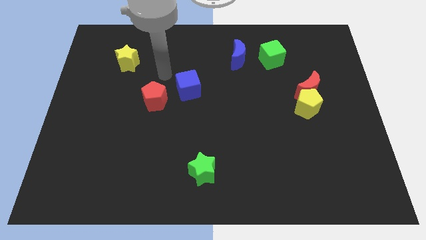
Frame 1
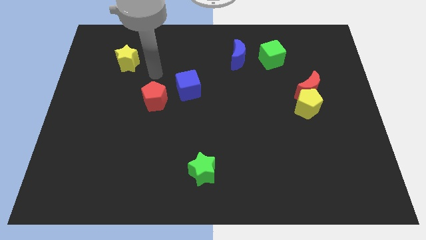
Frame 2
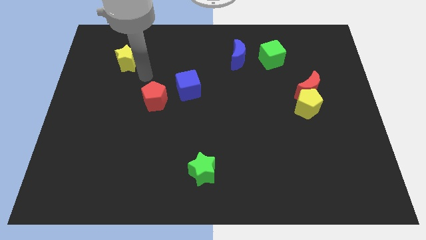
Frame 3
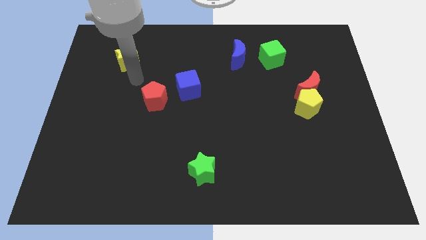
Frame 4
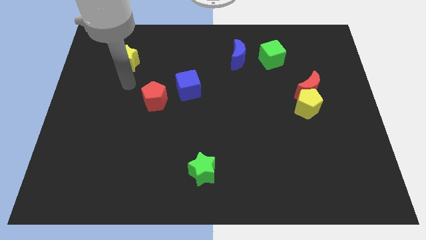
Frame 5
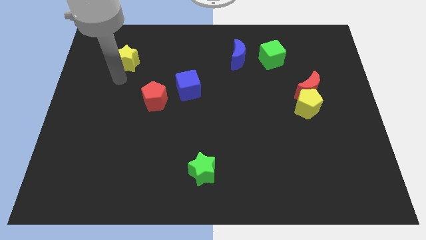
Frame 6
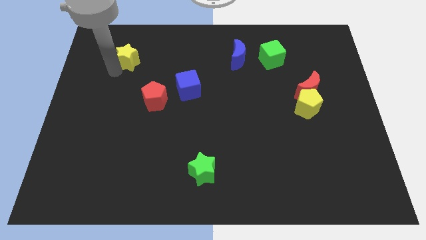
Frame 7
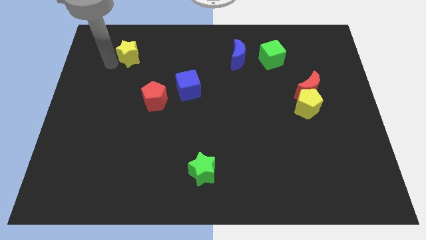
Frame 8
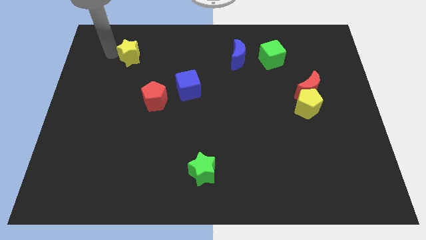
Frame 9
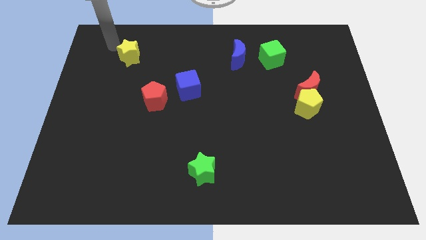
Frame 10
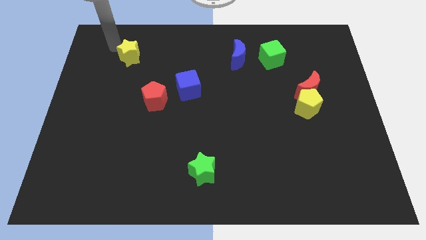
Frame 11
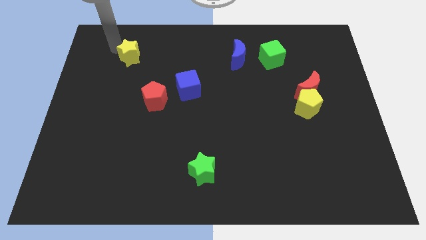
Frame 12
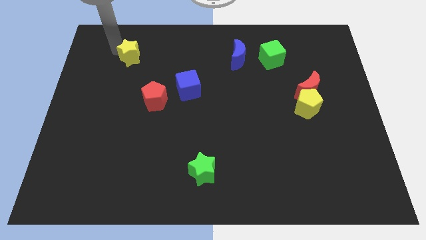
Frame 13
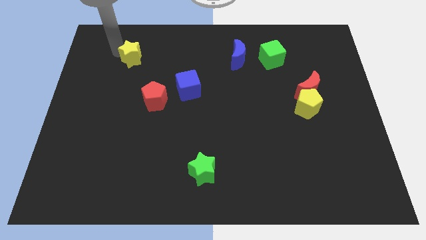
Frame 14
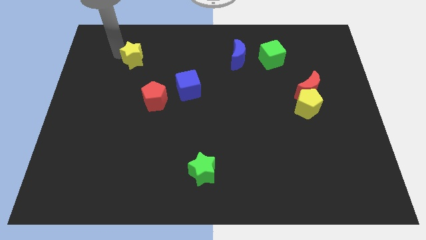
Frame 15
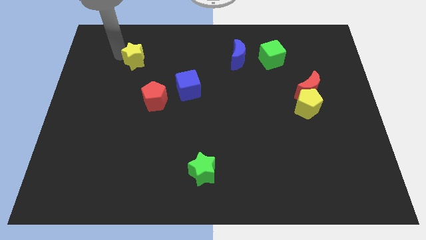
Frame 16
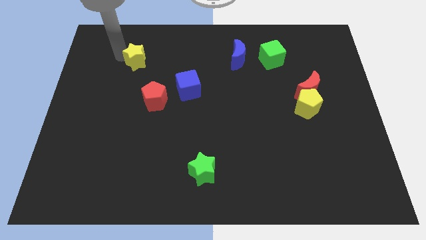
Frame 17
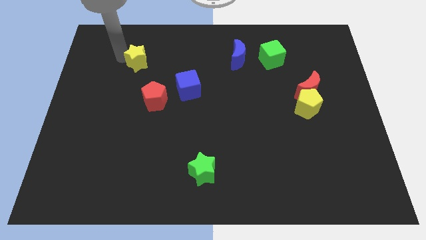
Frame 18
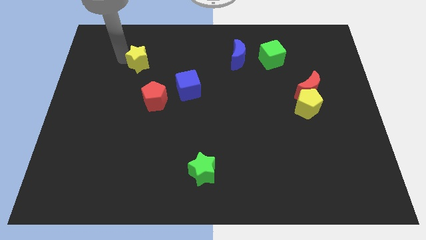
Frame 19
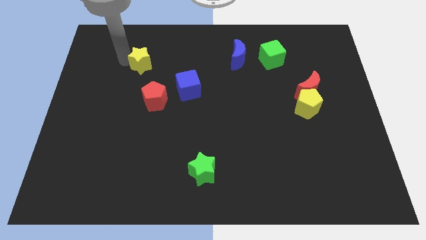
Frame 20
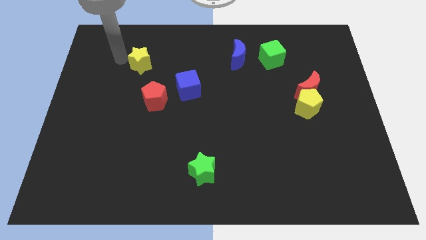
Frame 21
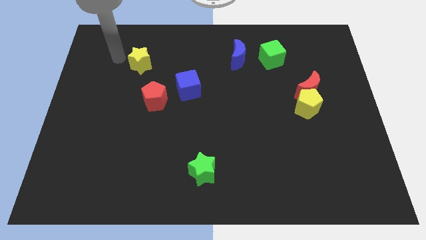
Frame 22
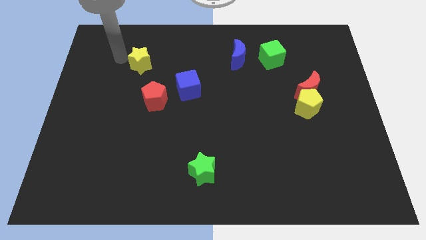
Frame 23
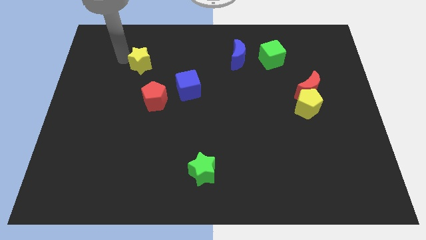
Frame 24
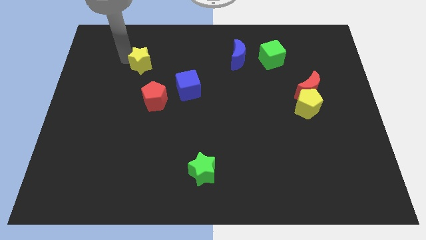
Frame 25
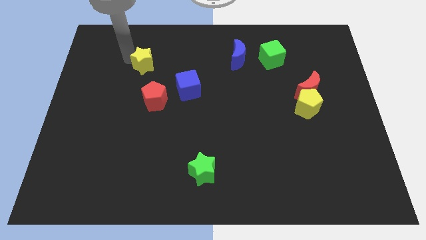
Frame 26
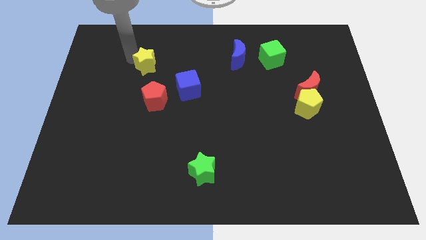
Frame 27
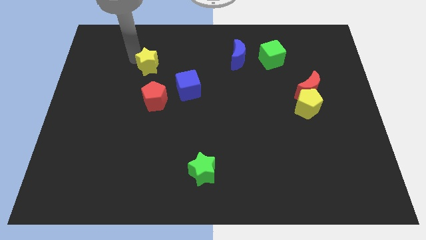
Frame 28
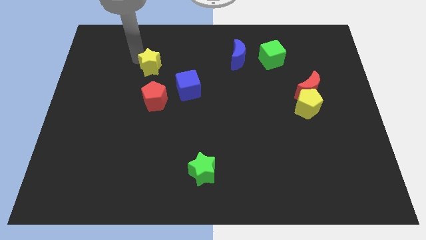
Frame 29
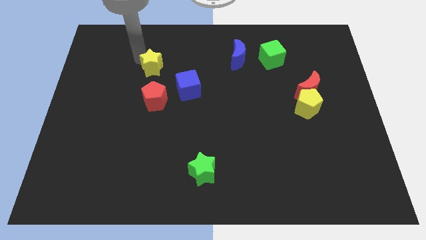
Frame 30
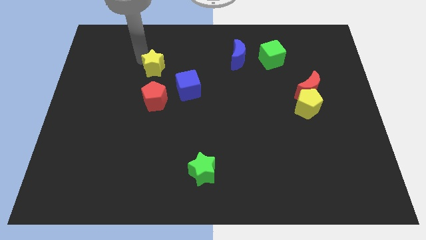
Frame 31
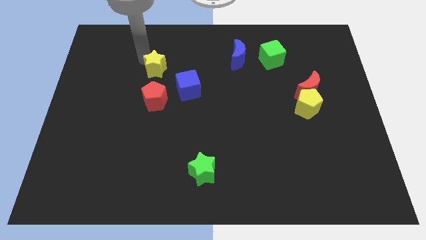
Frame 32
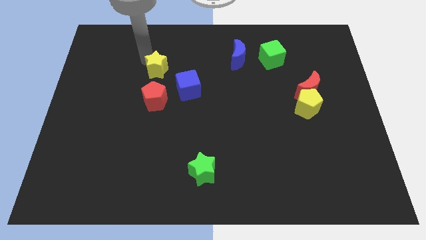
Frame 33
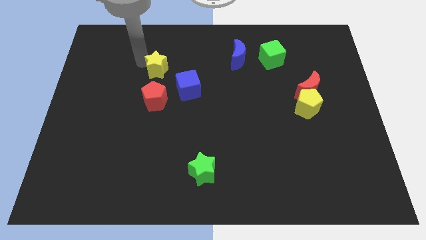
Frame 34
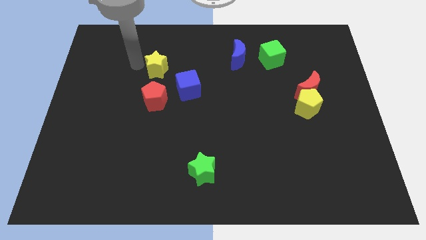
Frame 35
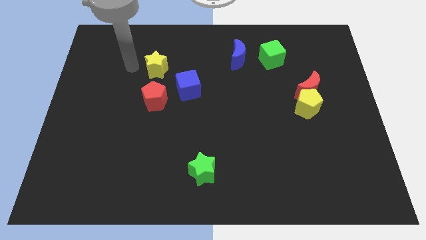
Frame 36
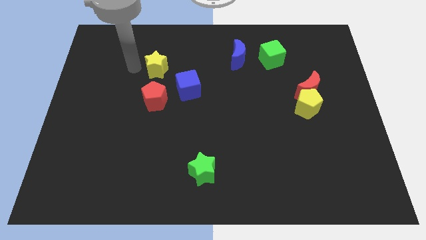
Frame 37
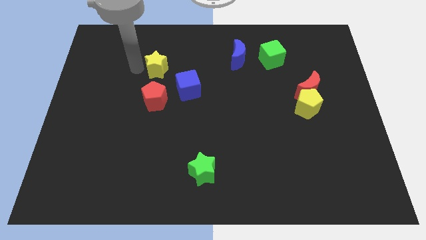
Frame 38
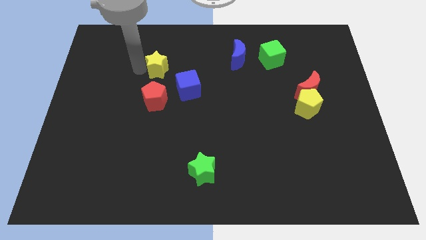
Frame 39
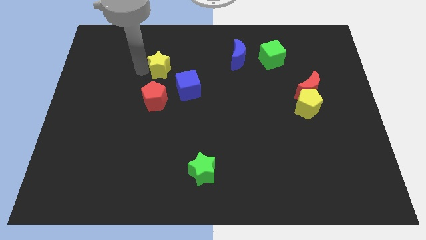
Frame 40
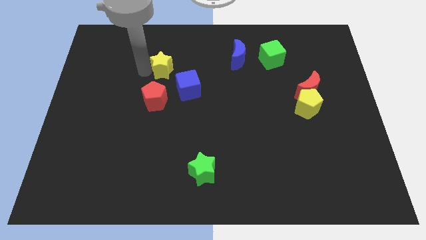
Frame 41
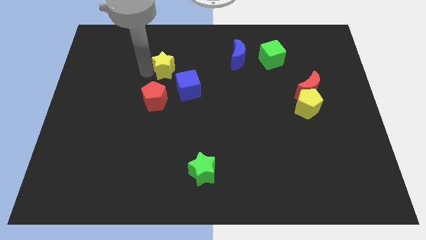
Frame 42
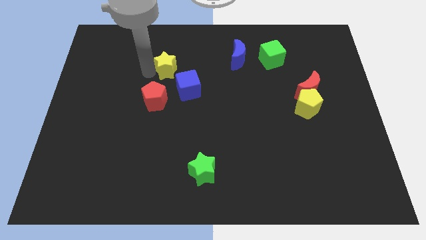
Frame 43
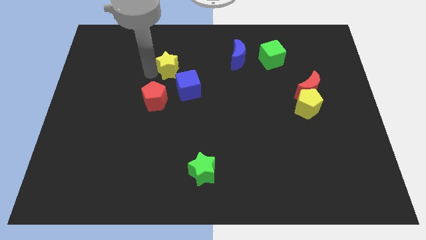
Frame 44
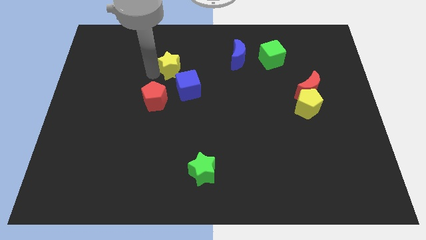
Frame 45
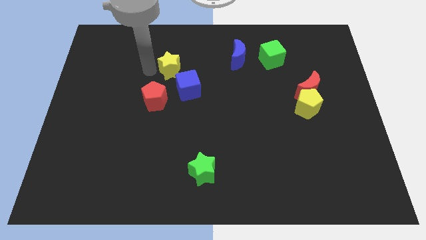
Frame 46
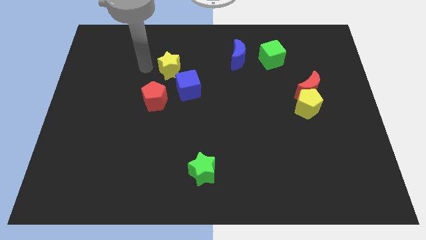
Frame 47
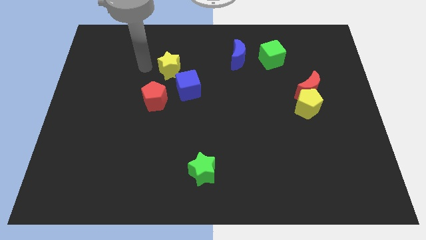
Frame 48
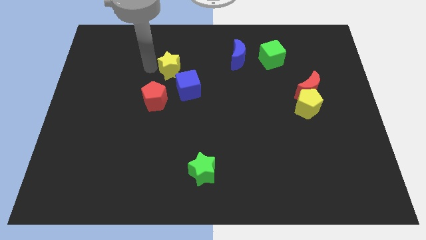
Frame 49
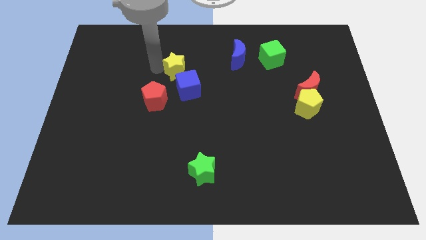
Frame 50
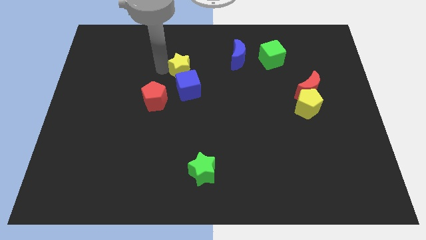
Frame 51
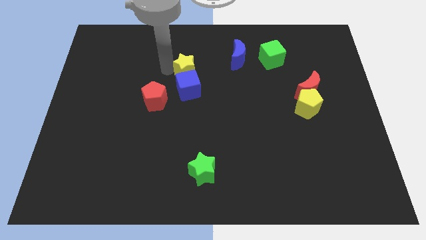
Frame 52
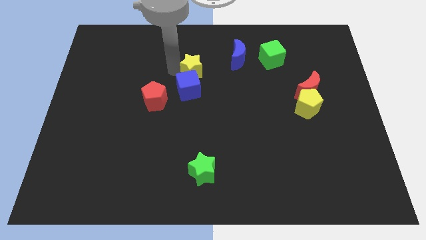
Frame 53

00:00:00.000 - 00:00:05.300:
put the yellow star to the top right side of the blue cube

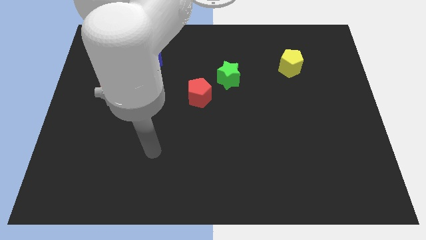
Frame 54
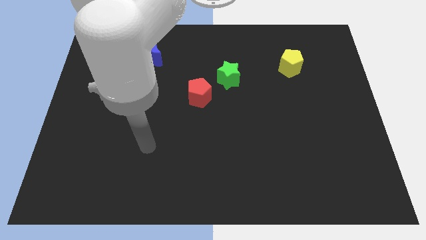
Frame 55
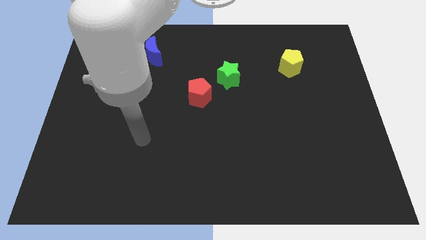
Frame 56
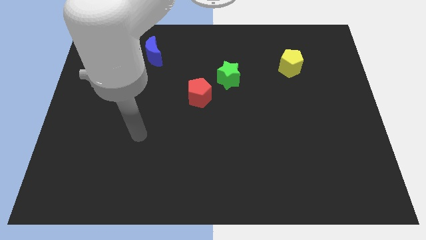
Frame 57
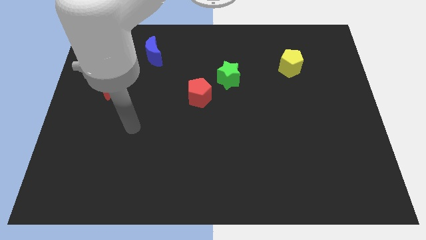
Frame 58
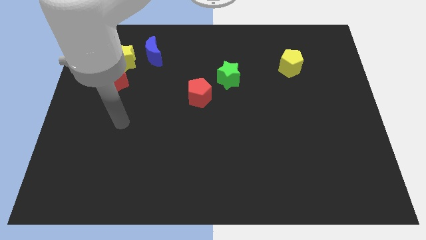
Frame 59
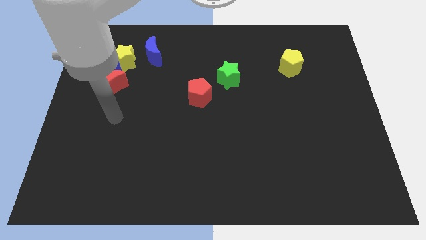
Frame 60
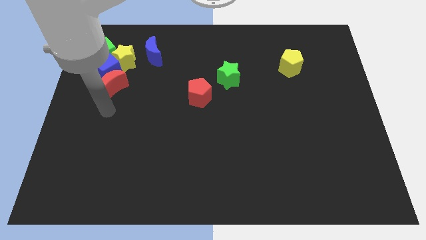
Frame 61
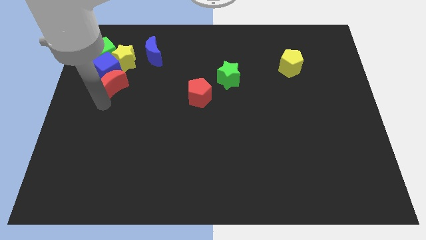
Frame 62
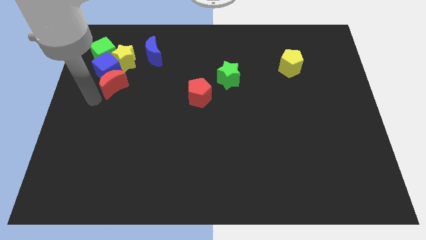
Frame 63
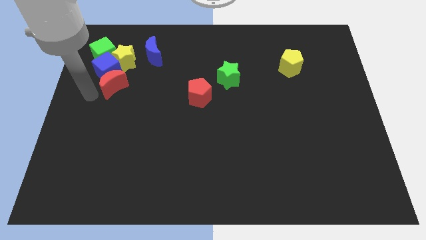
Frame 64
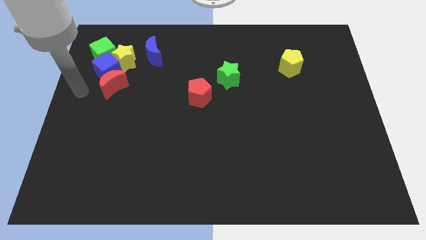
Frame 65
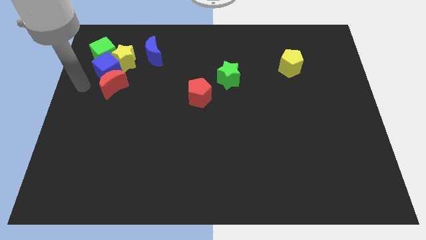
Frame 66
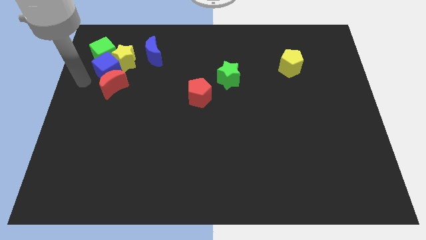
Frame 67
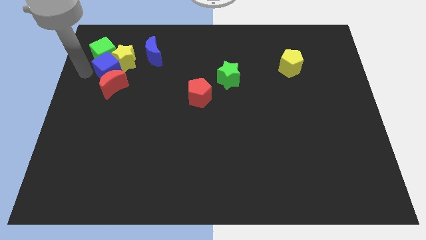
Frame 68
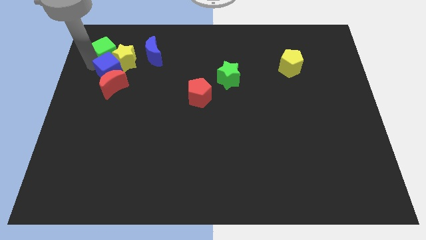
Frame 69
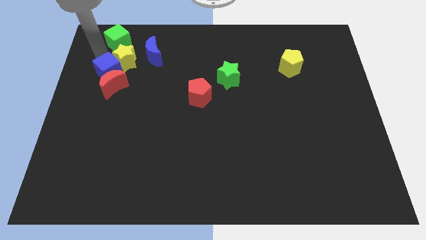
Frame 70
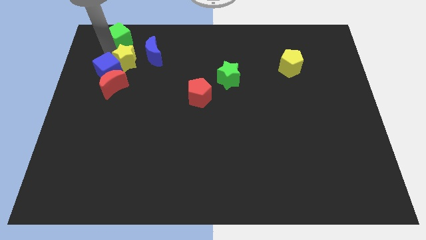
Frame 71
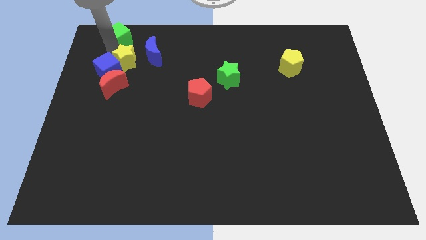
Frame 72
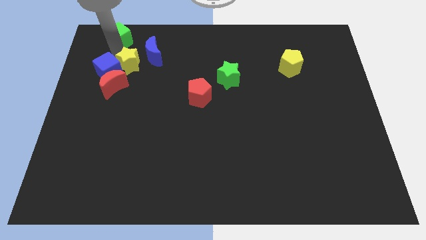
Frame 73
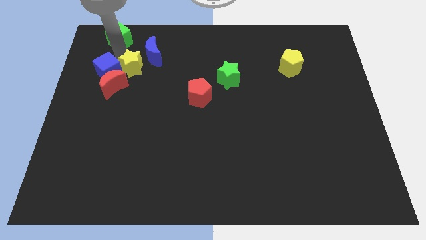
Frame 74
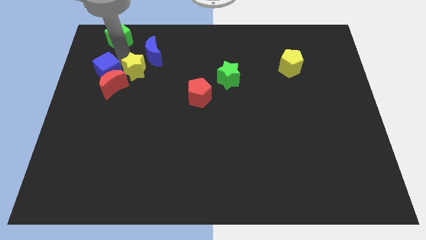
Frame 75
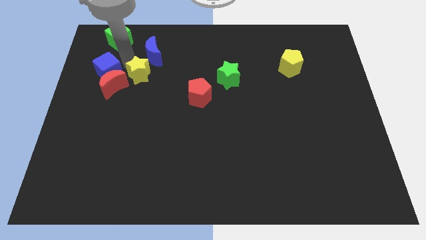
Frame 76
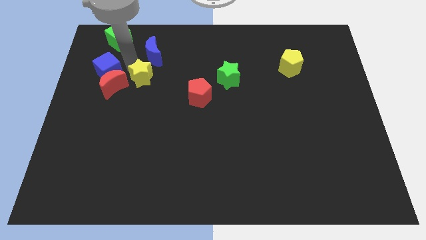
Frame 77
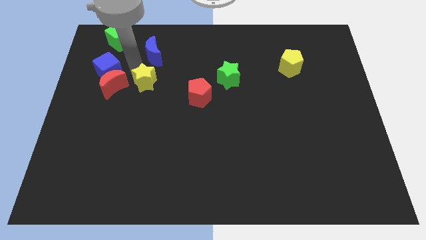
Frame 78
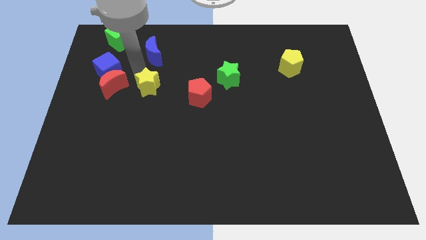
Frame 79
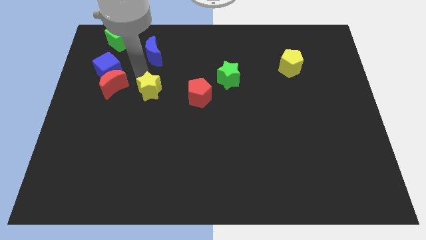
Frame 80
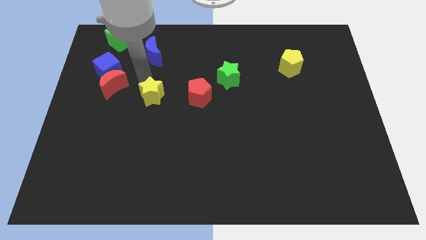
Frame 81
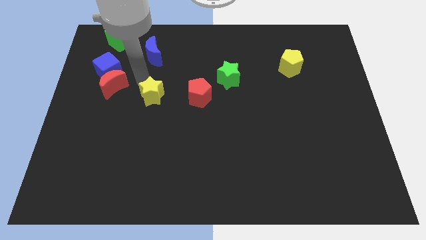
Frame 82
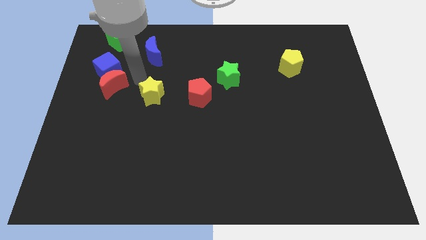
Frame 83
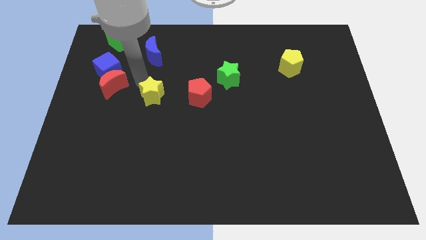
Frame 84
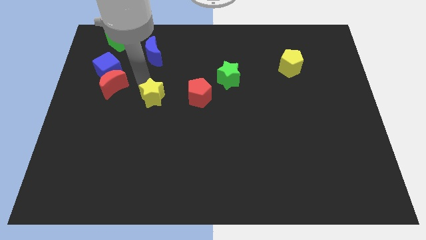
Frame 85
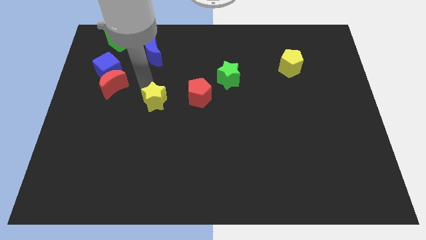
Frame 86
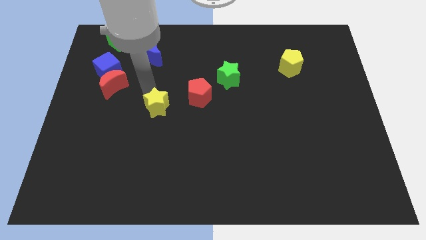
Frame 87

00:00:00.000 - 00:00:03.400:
push the yellow star to the bottom left of the red pentagon
